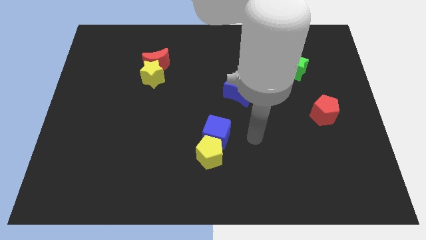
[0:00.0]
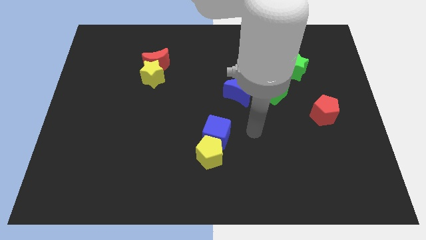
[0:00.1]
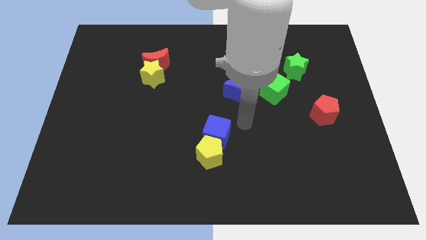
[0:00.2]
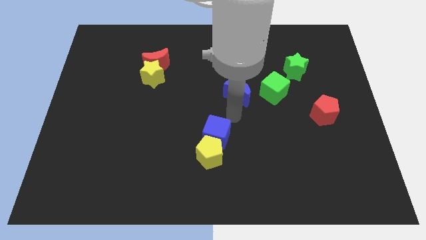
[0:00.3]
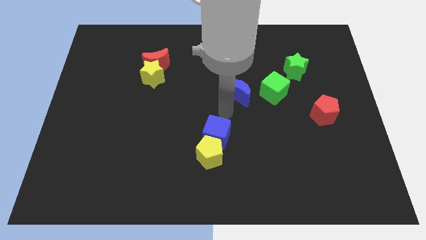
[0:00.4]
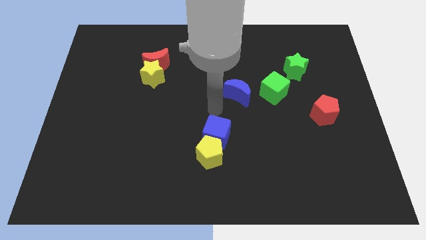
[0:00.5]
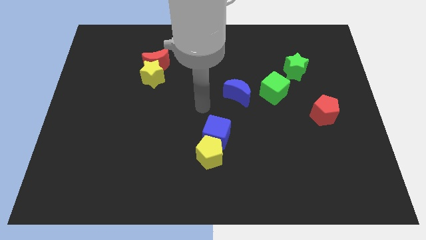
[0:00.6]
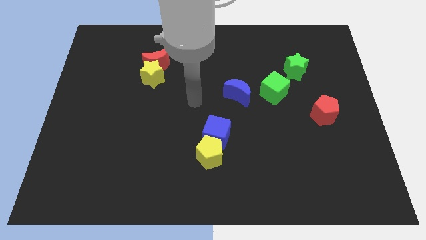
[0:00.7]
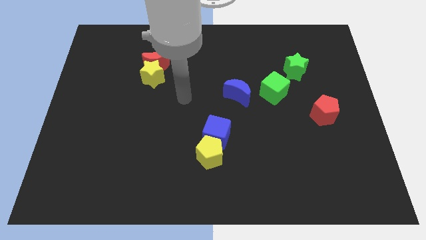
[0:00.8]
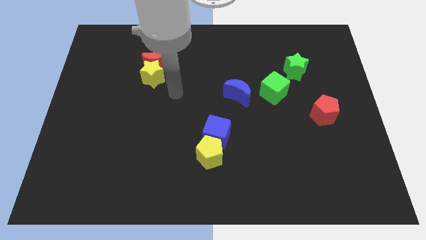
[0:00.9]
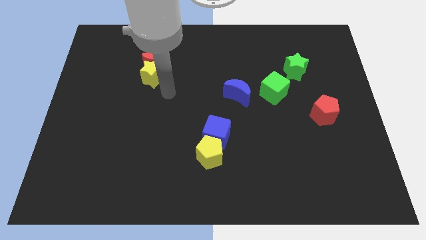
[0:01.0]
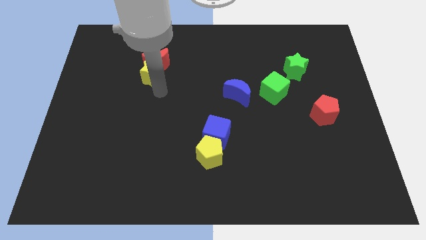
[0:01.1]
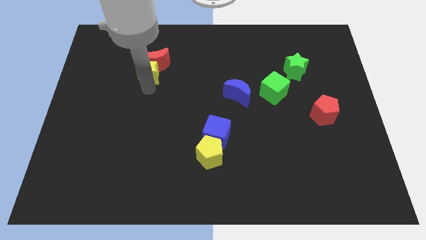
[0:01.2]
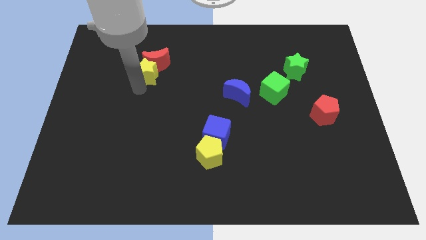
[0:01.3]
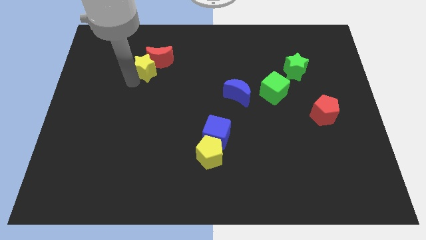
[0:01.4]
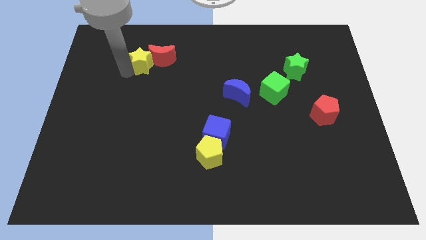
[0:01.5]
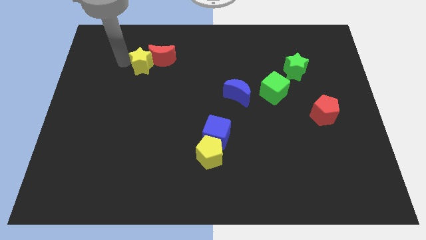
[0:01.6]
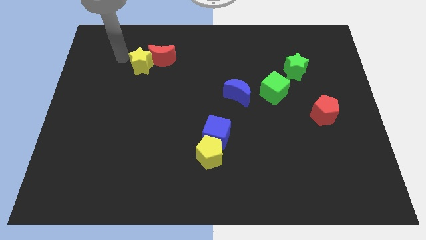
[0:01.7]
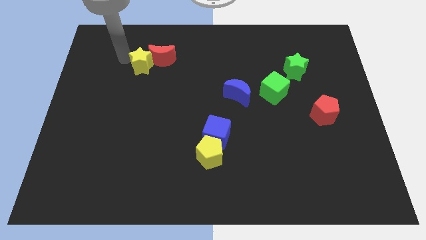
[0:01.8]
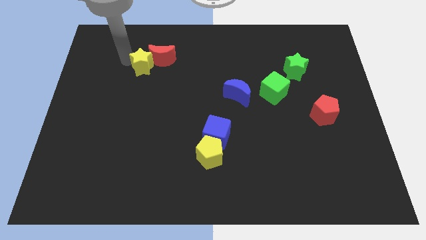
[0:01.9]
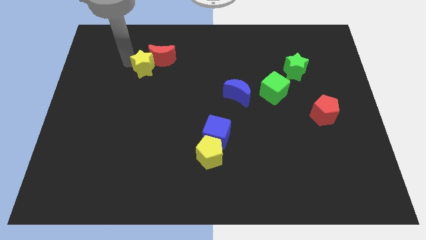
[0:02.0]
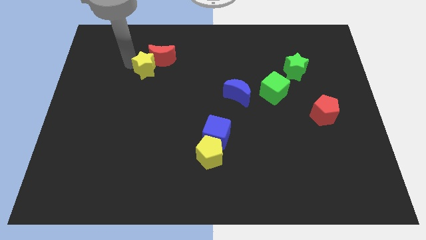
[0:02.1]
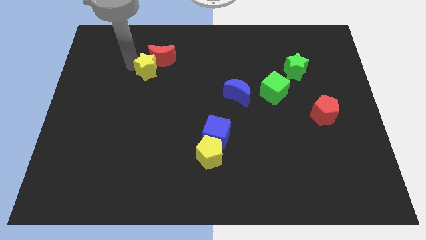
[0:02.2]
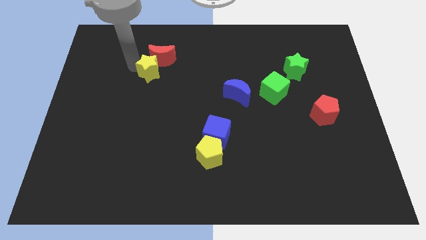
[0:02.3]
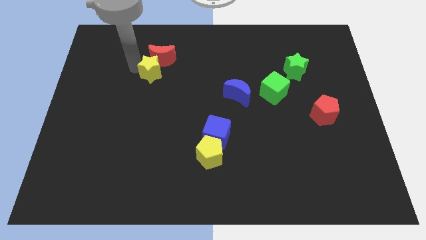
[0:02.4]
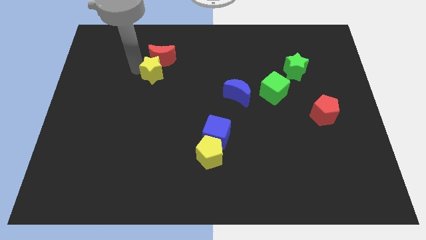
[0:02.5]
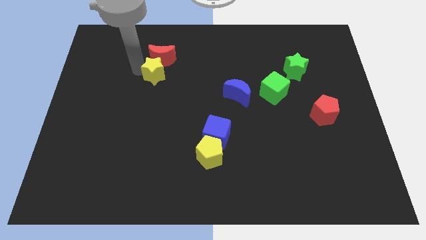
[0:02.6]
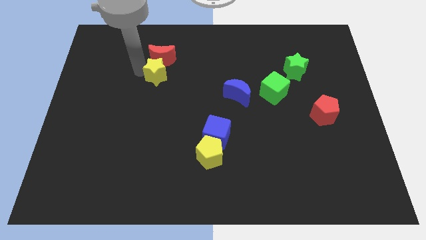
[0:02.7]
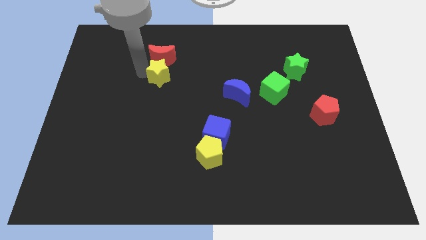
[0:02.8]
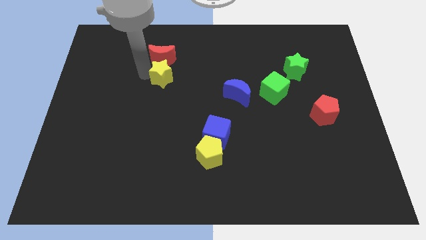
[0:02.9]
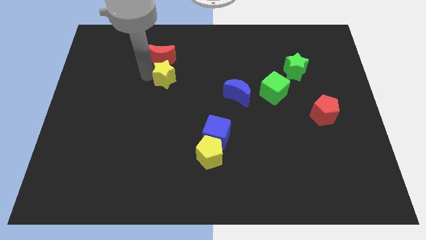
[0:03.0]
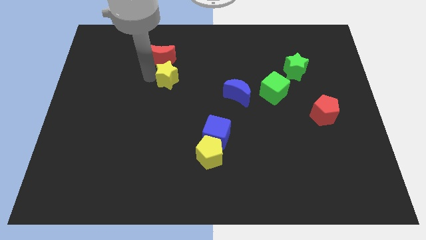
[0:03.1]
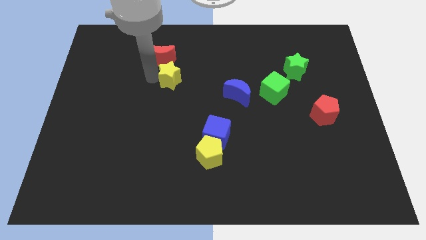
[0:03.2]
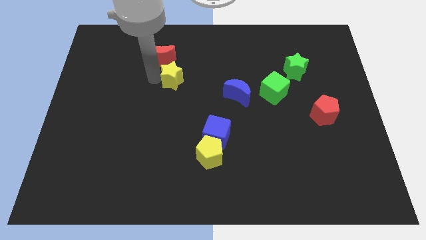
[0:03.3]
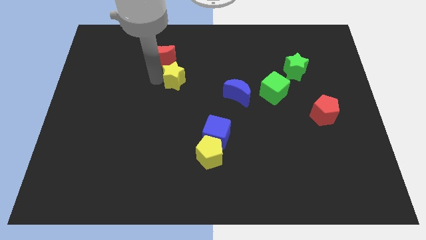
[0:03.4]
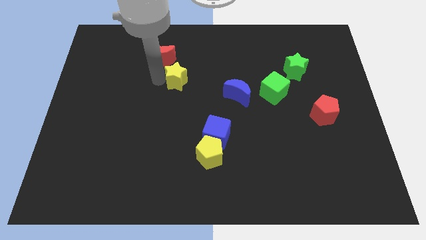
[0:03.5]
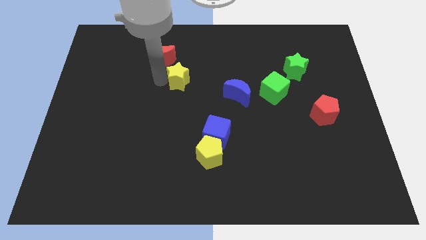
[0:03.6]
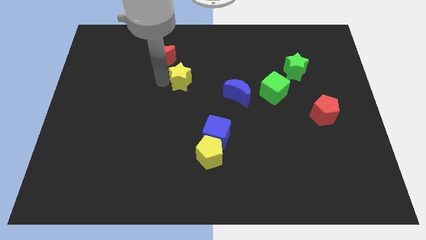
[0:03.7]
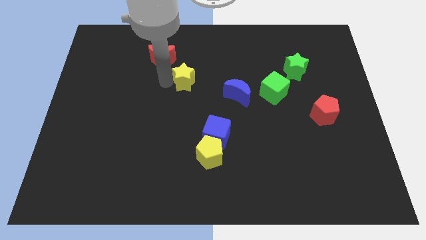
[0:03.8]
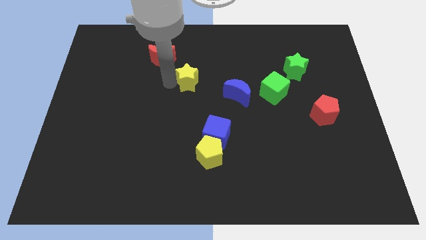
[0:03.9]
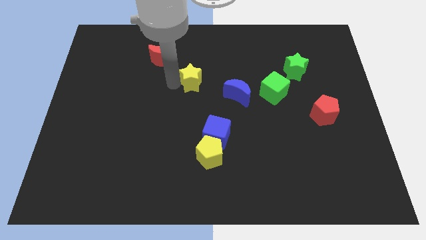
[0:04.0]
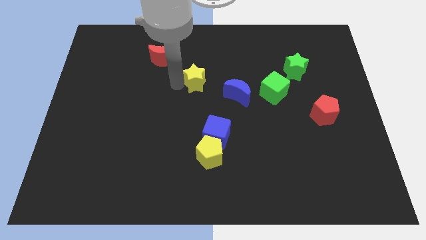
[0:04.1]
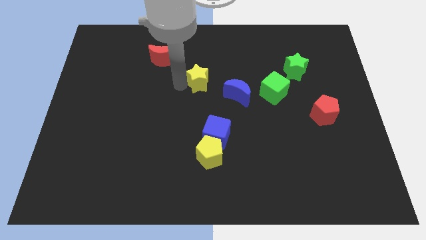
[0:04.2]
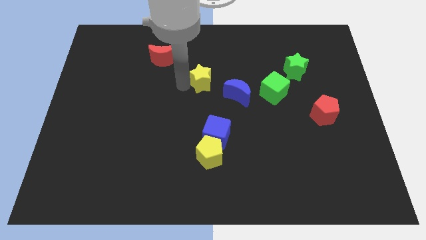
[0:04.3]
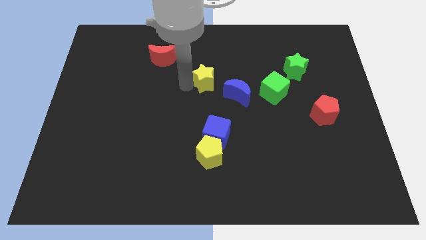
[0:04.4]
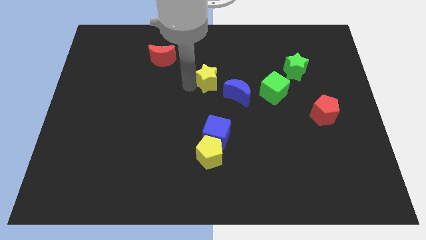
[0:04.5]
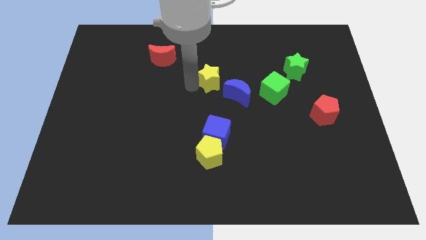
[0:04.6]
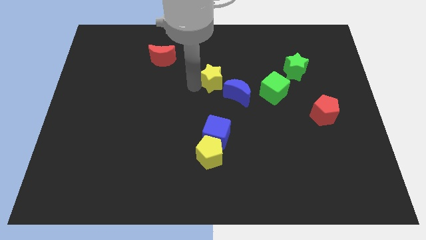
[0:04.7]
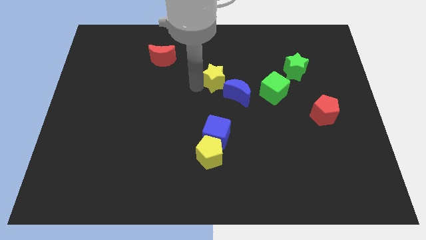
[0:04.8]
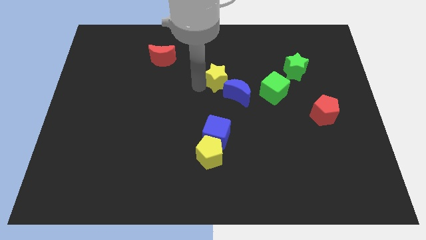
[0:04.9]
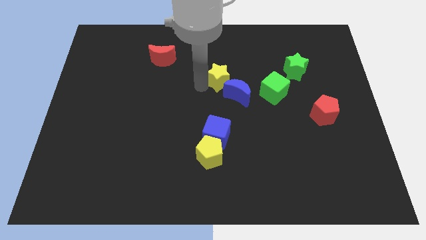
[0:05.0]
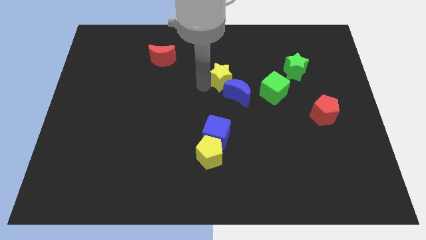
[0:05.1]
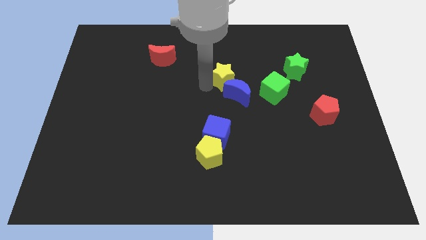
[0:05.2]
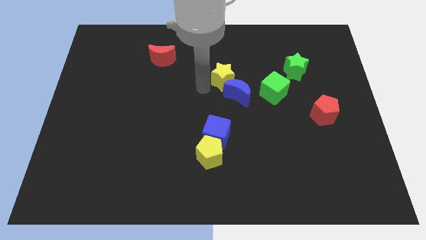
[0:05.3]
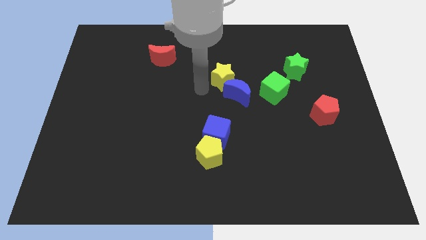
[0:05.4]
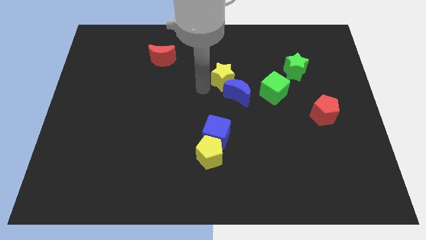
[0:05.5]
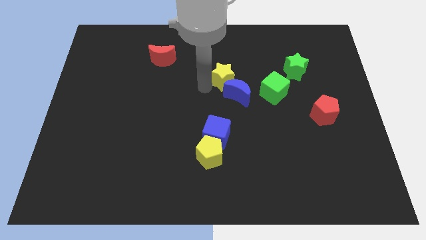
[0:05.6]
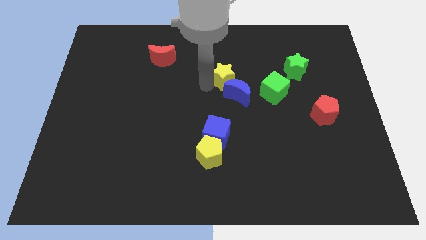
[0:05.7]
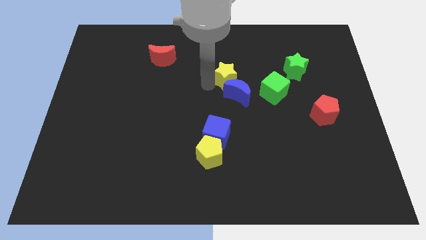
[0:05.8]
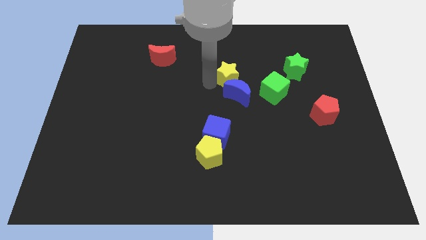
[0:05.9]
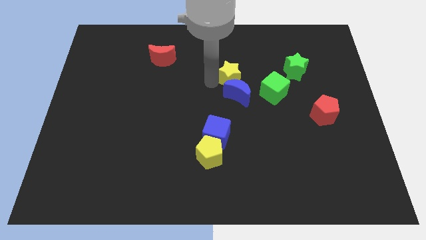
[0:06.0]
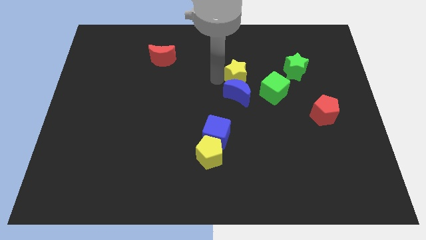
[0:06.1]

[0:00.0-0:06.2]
push the yellow star to the right

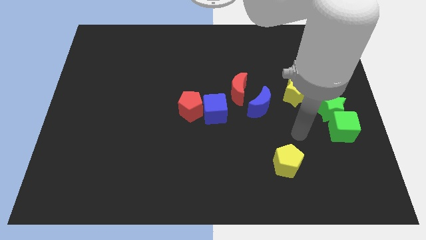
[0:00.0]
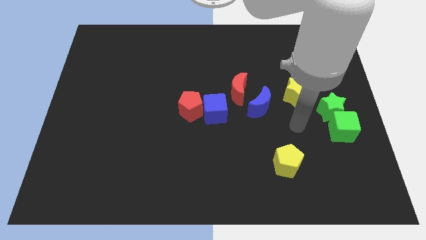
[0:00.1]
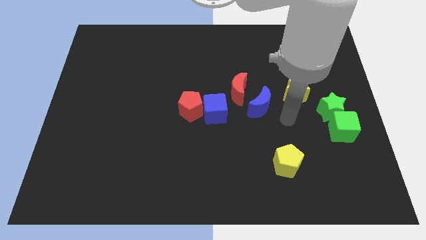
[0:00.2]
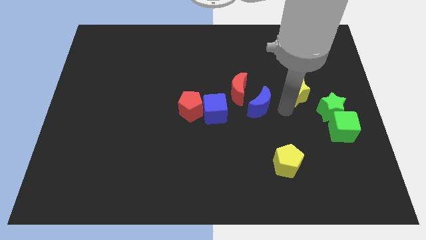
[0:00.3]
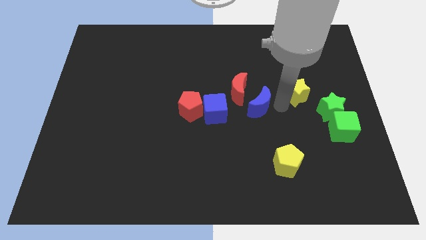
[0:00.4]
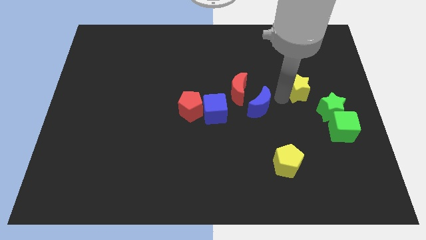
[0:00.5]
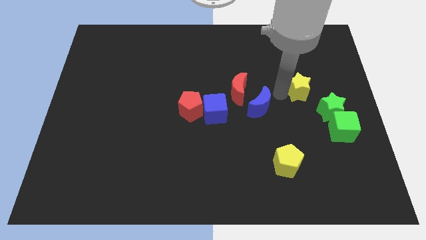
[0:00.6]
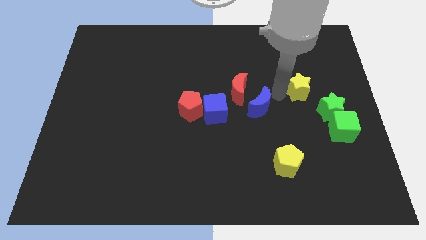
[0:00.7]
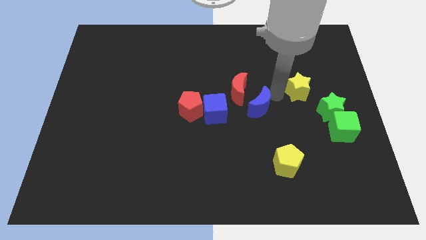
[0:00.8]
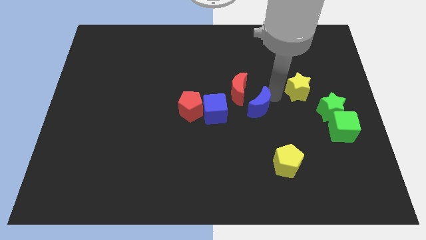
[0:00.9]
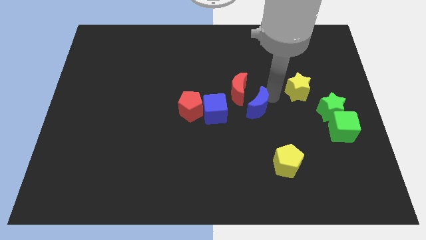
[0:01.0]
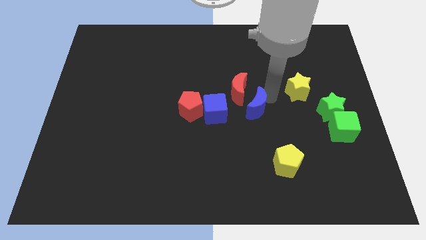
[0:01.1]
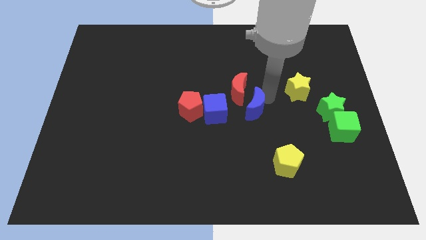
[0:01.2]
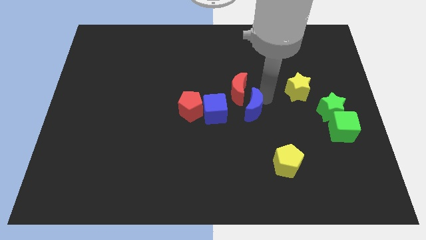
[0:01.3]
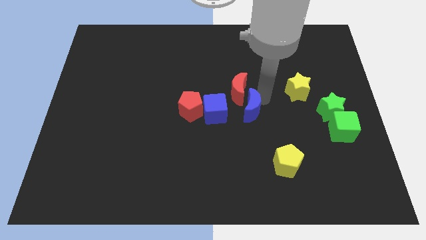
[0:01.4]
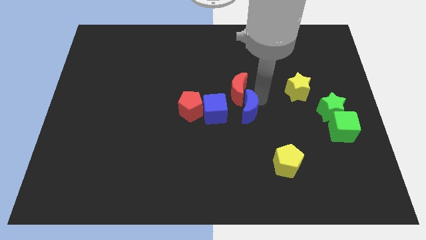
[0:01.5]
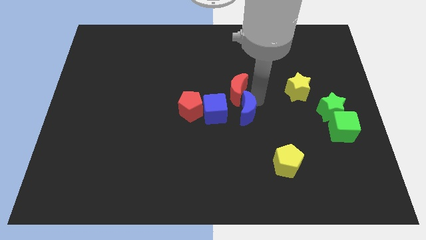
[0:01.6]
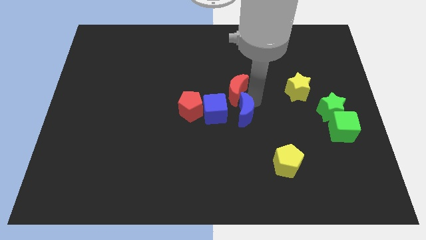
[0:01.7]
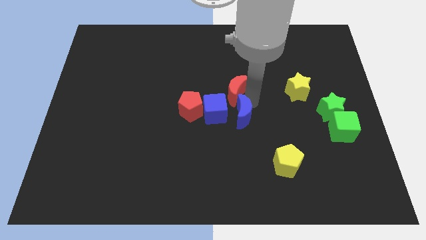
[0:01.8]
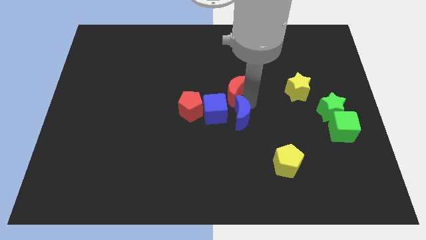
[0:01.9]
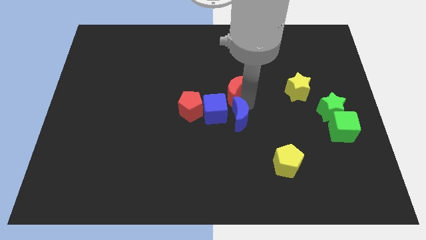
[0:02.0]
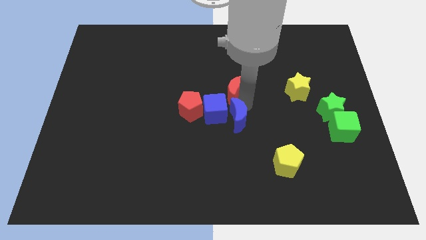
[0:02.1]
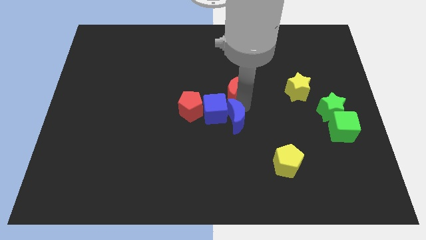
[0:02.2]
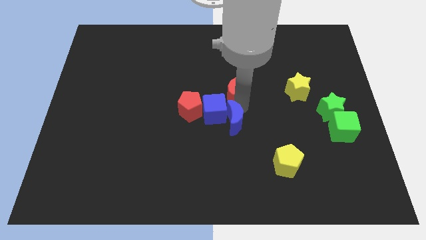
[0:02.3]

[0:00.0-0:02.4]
slightly slide the blue moon downwards and then to the left
